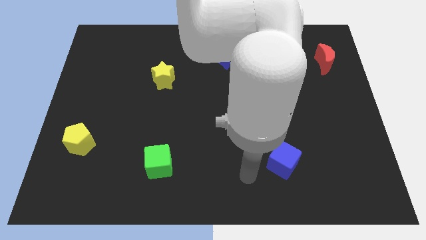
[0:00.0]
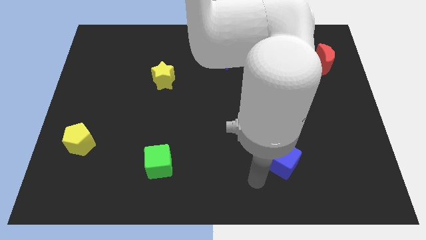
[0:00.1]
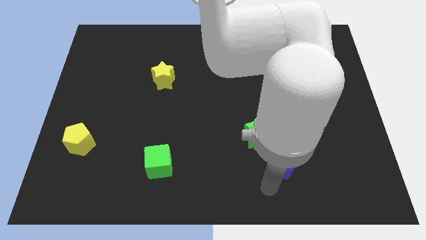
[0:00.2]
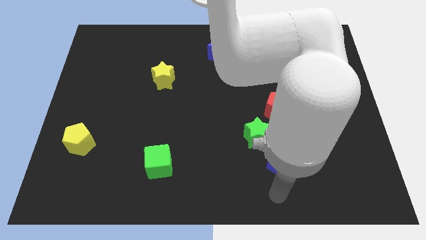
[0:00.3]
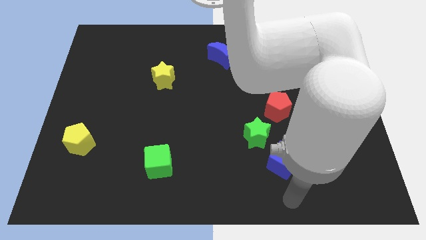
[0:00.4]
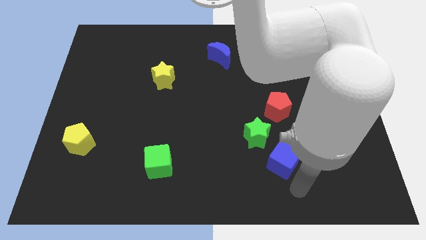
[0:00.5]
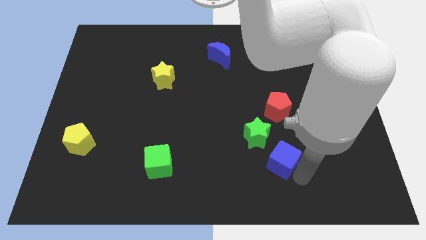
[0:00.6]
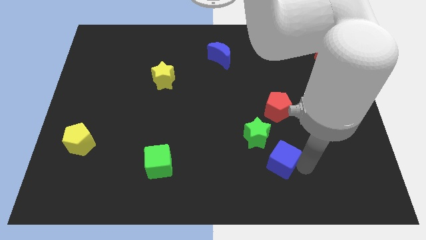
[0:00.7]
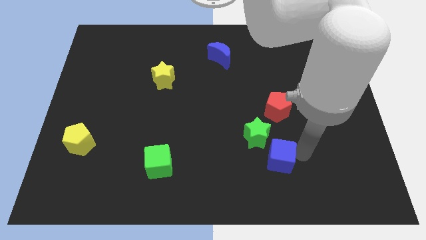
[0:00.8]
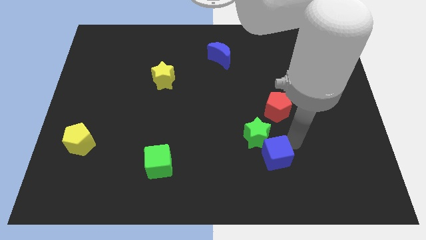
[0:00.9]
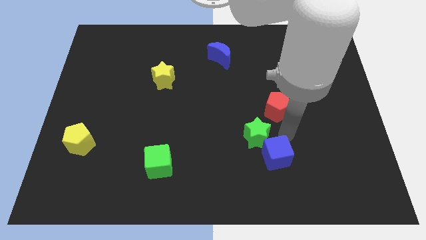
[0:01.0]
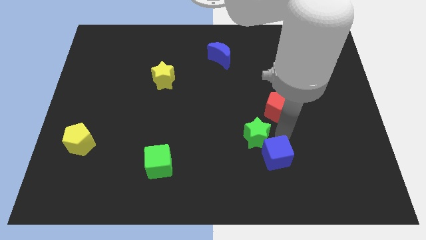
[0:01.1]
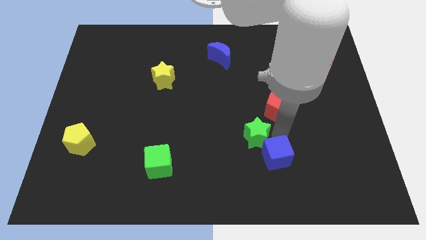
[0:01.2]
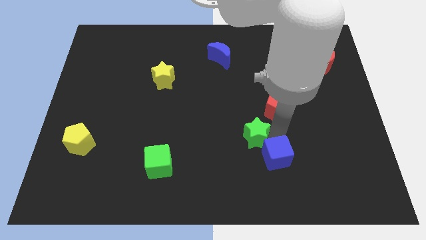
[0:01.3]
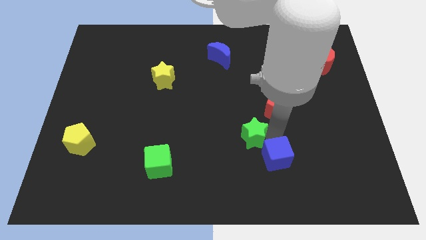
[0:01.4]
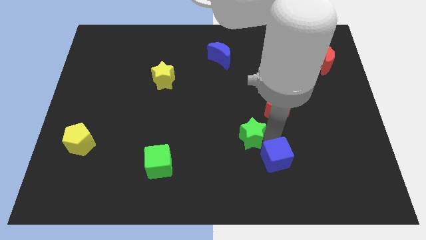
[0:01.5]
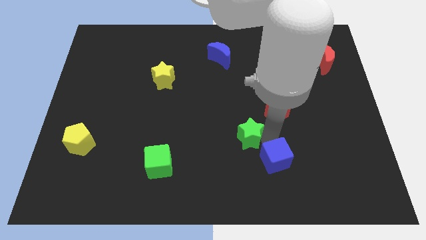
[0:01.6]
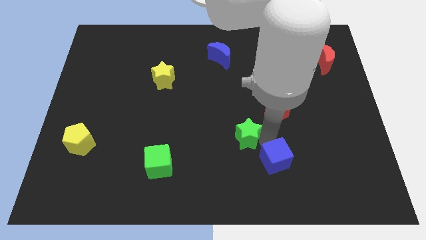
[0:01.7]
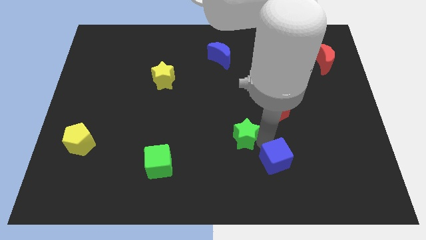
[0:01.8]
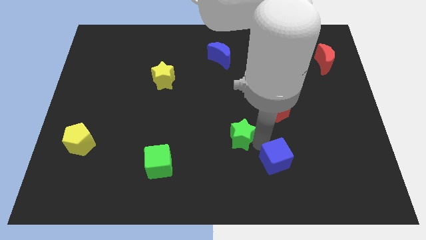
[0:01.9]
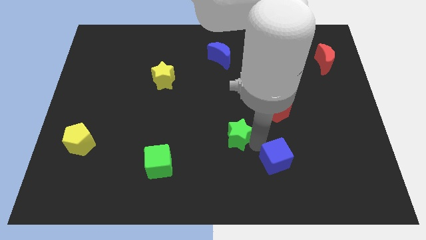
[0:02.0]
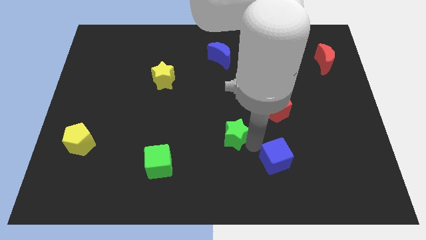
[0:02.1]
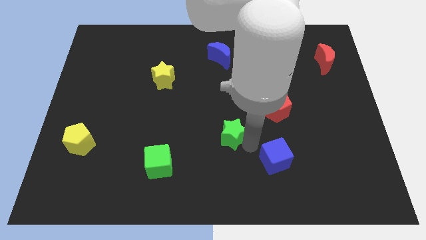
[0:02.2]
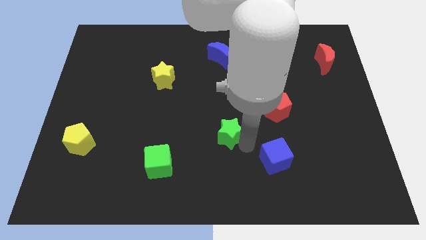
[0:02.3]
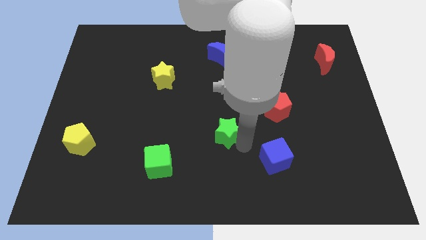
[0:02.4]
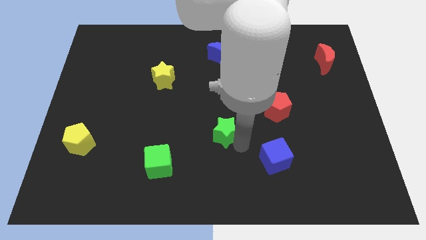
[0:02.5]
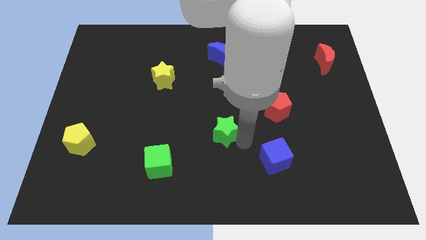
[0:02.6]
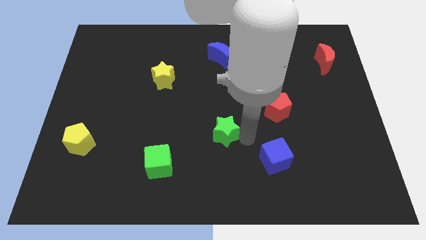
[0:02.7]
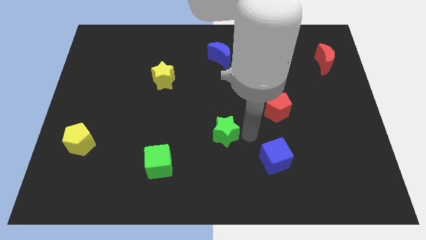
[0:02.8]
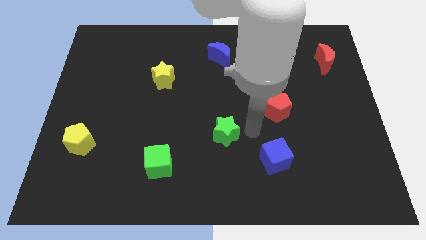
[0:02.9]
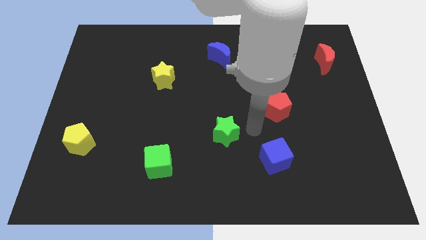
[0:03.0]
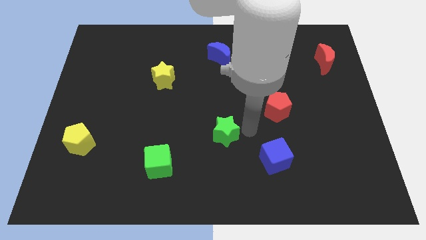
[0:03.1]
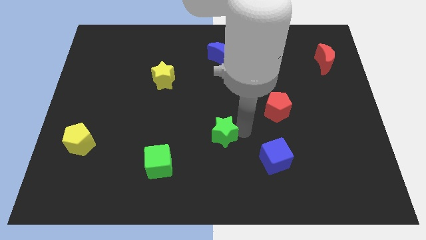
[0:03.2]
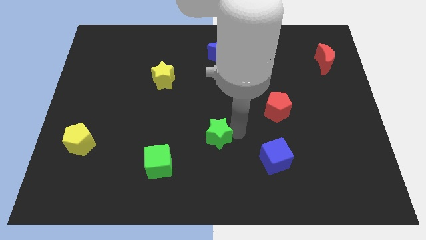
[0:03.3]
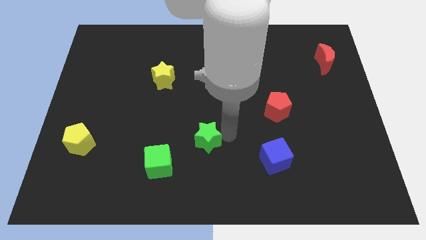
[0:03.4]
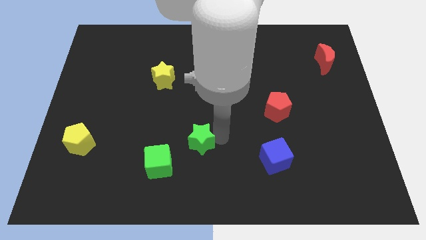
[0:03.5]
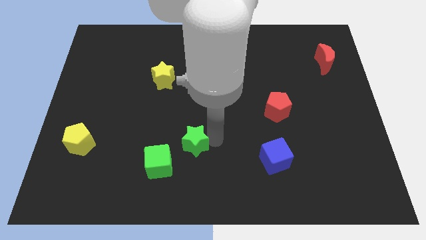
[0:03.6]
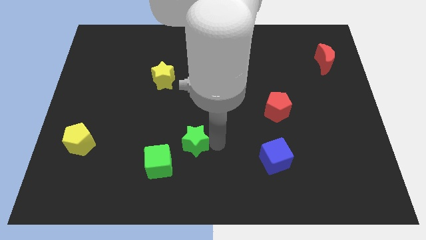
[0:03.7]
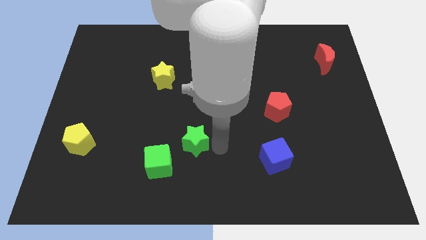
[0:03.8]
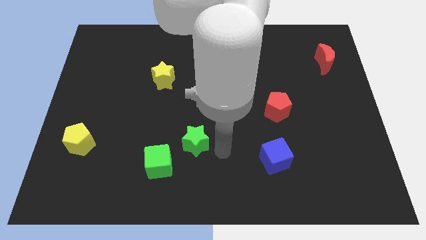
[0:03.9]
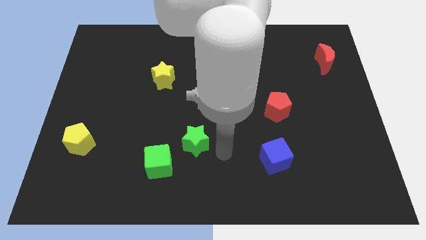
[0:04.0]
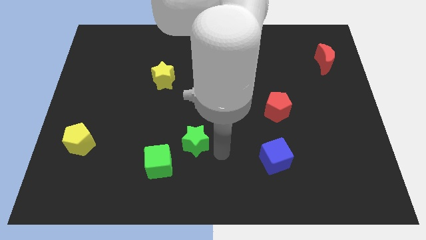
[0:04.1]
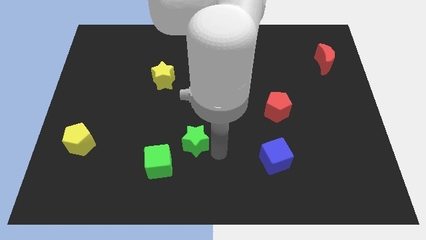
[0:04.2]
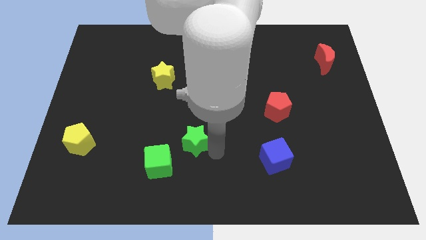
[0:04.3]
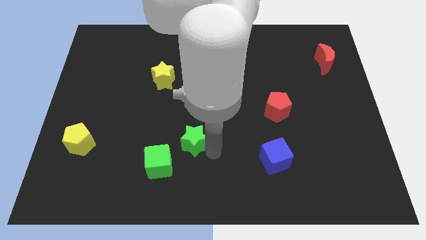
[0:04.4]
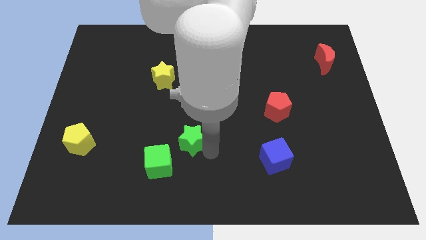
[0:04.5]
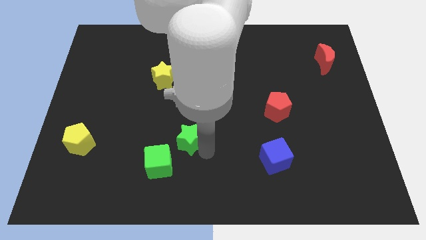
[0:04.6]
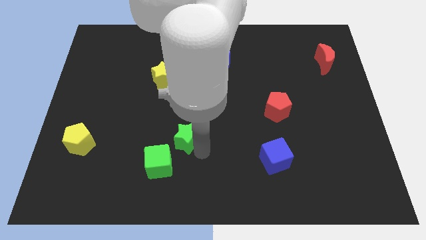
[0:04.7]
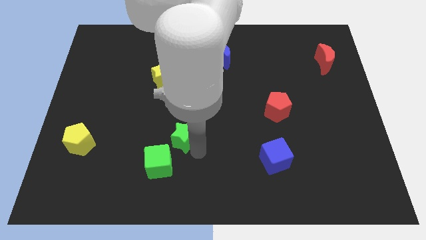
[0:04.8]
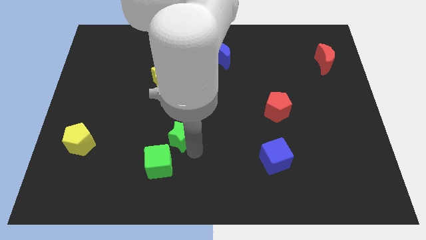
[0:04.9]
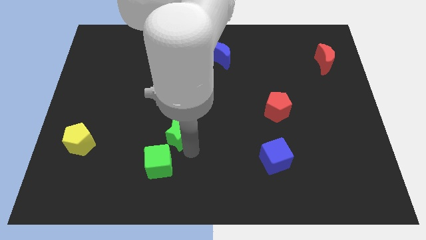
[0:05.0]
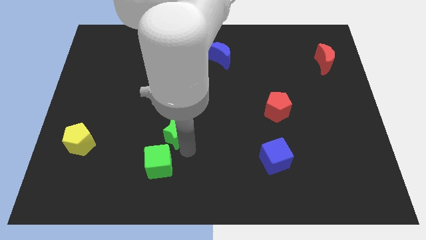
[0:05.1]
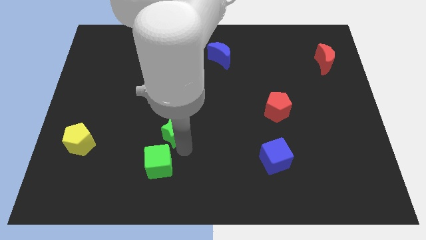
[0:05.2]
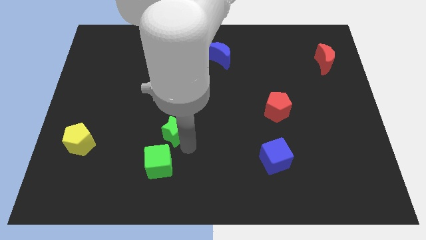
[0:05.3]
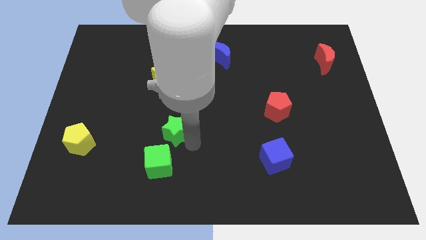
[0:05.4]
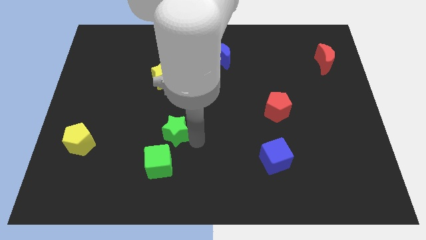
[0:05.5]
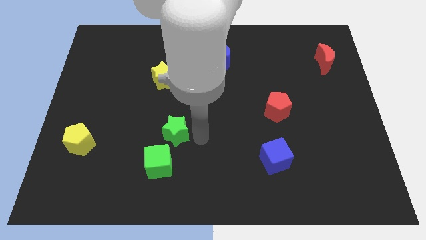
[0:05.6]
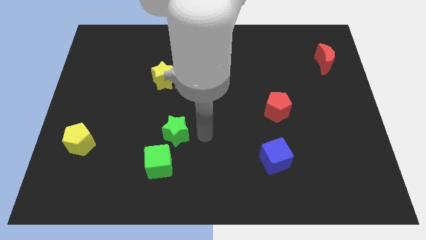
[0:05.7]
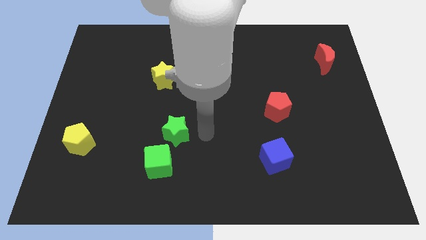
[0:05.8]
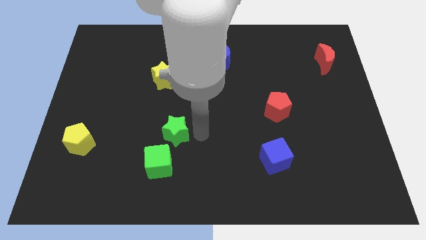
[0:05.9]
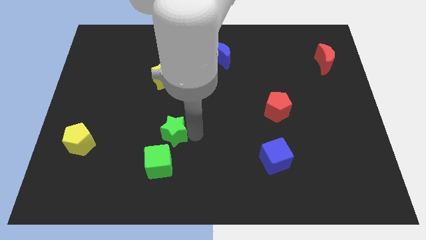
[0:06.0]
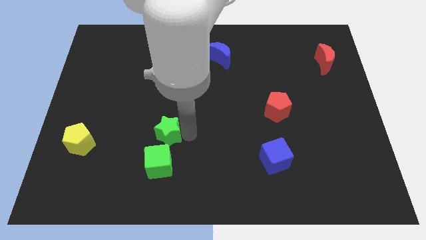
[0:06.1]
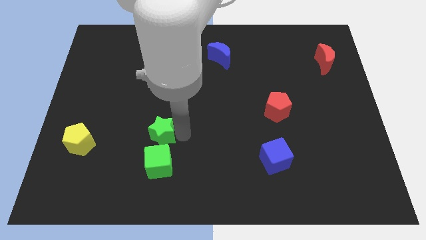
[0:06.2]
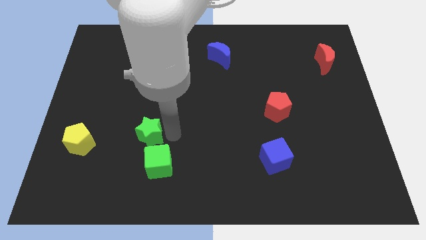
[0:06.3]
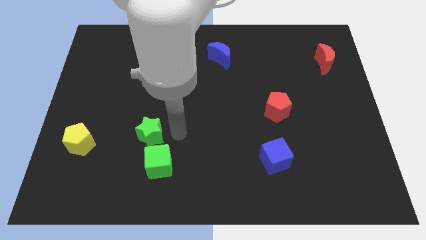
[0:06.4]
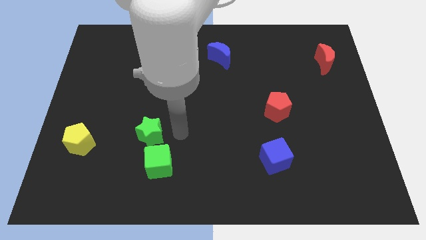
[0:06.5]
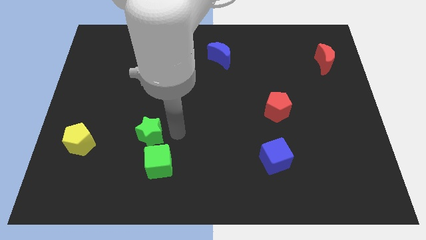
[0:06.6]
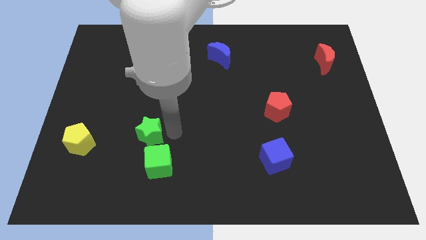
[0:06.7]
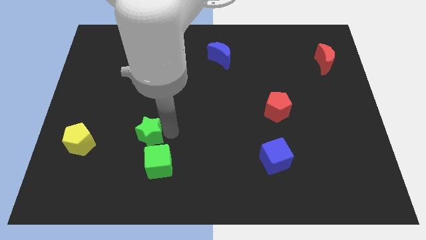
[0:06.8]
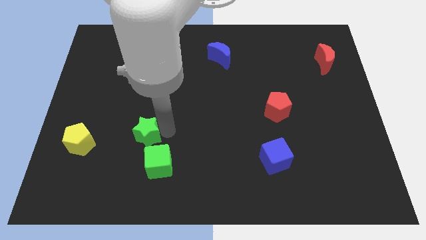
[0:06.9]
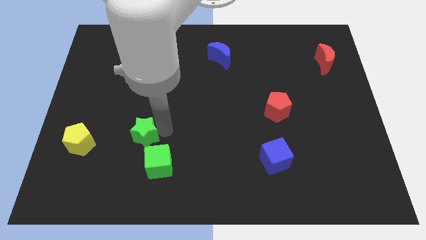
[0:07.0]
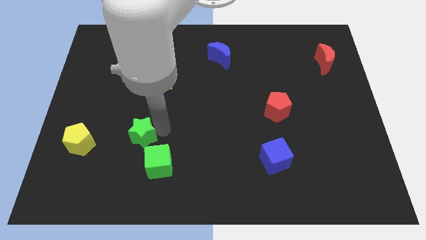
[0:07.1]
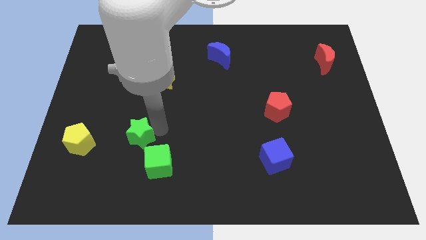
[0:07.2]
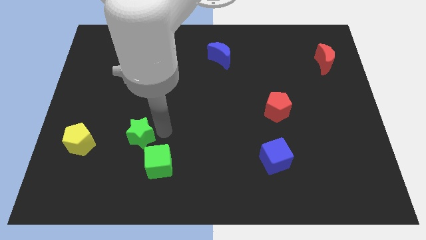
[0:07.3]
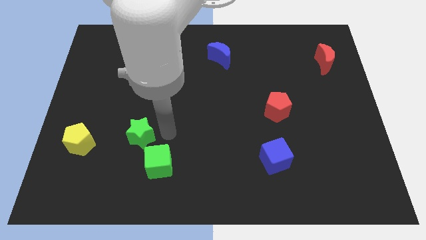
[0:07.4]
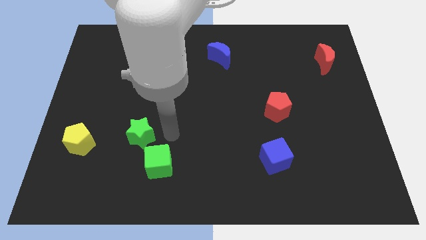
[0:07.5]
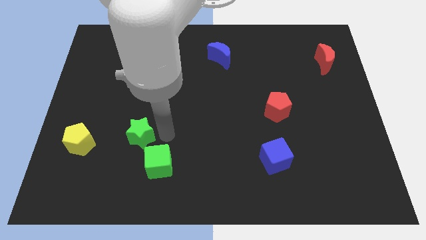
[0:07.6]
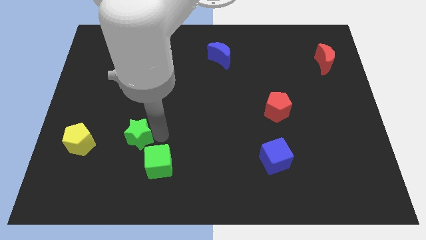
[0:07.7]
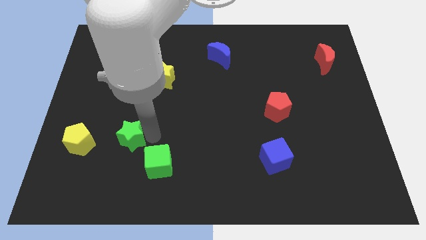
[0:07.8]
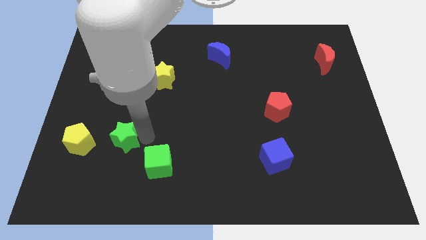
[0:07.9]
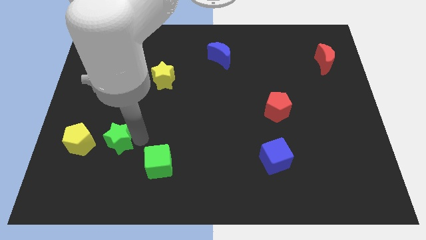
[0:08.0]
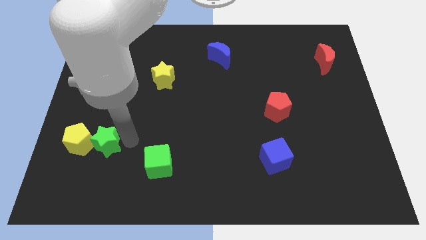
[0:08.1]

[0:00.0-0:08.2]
move the green star next to the yellow pentagon
